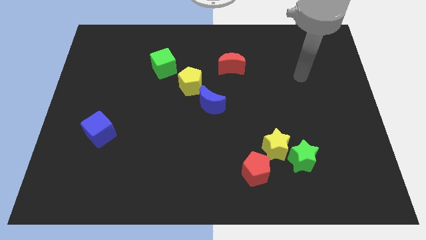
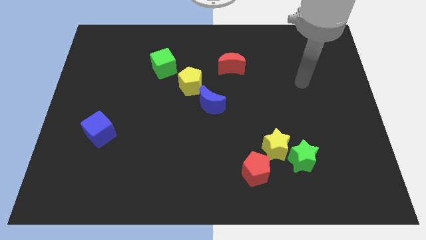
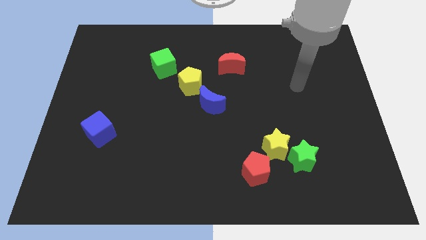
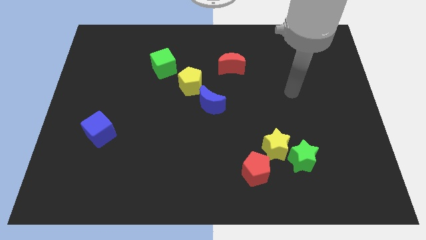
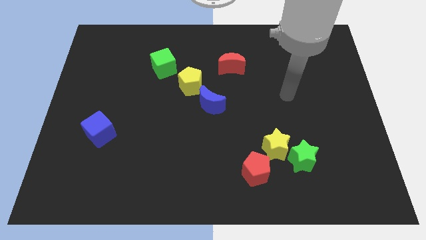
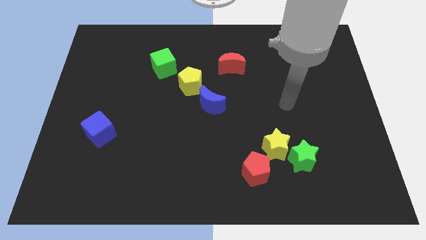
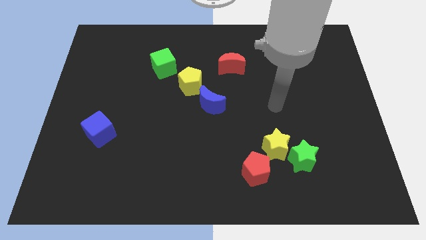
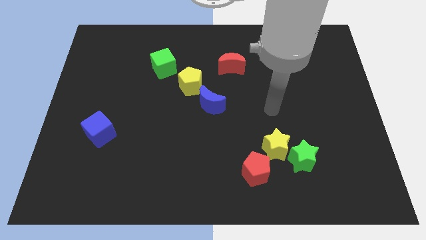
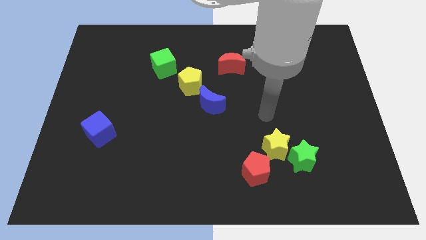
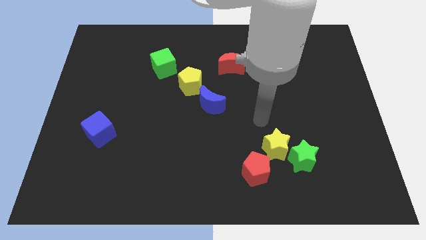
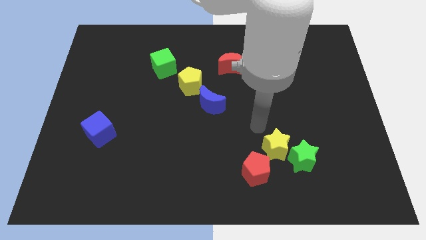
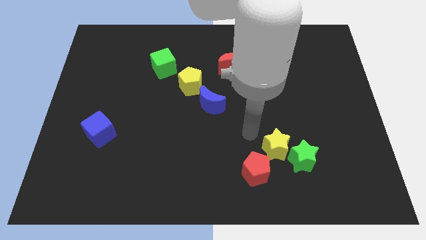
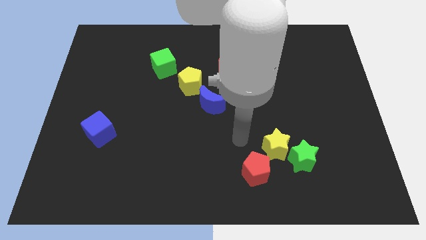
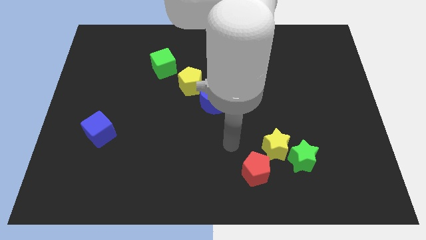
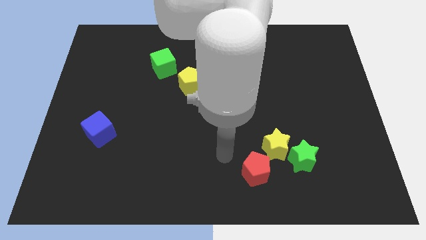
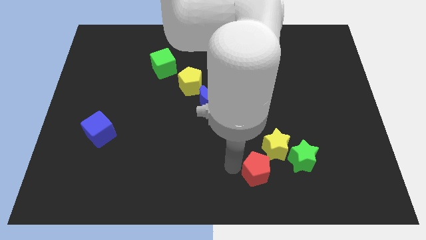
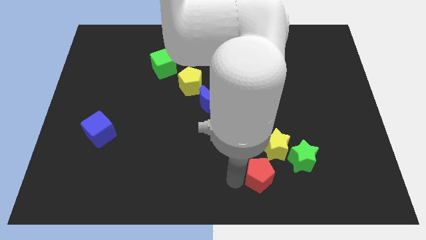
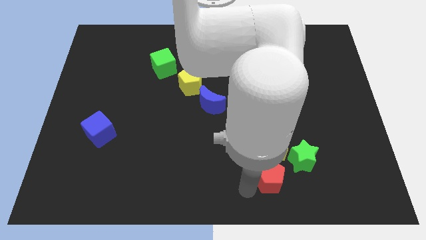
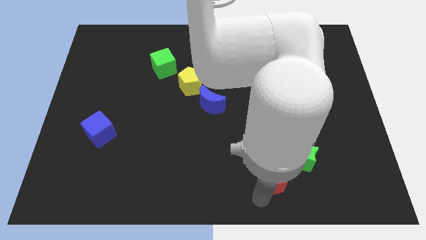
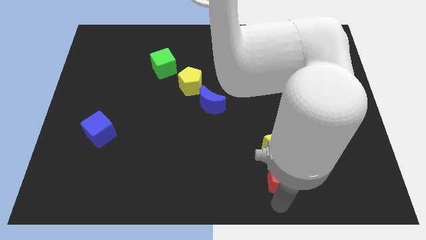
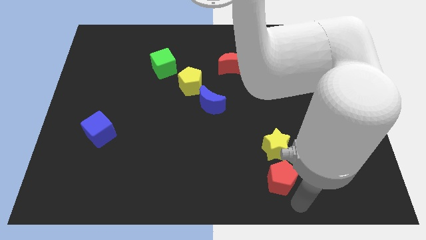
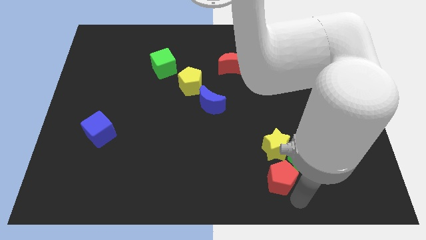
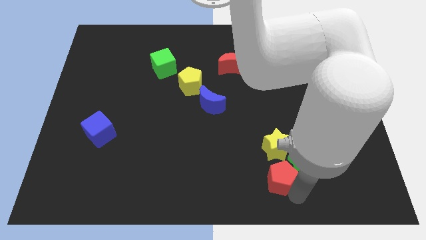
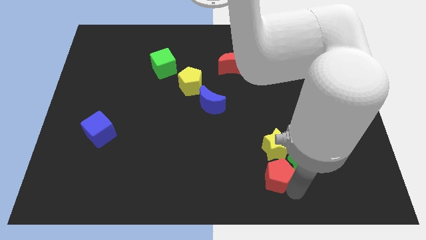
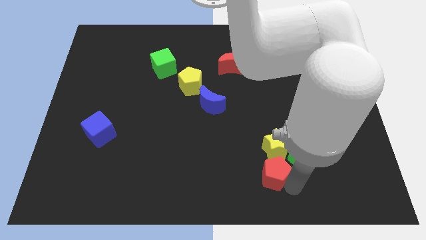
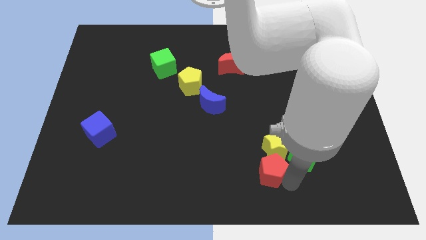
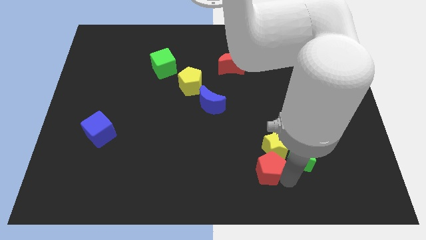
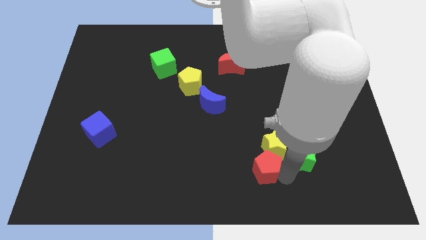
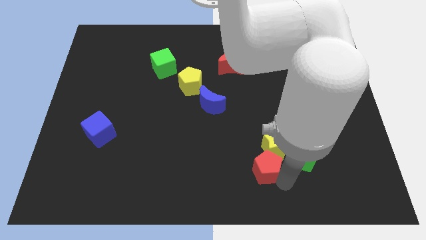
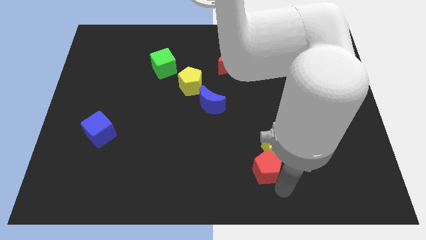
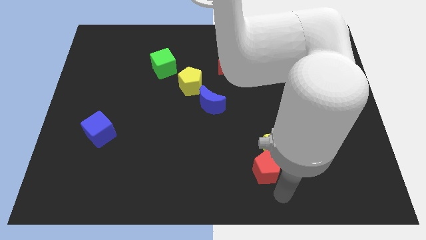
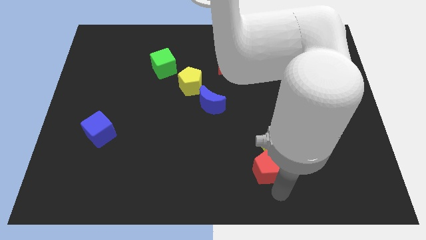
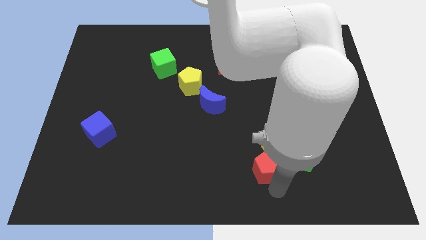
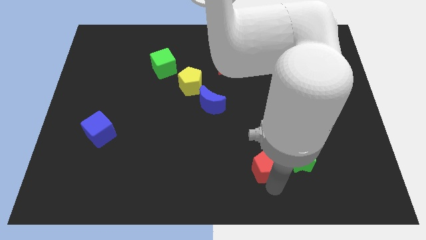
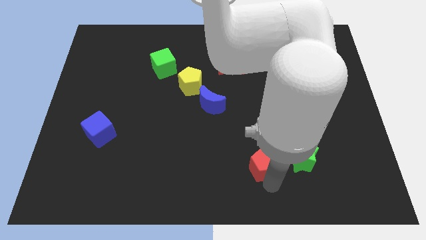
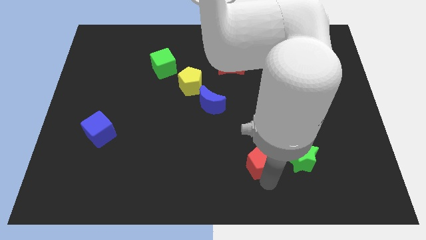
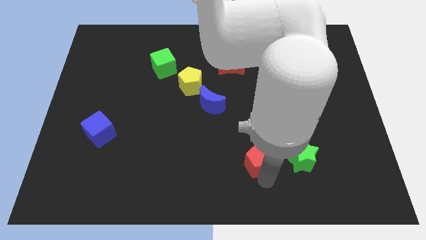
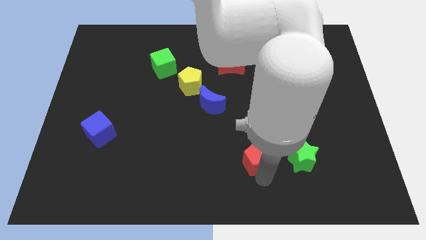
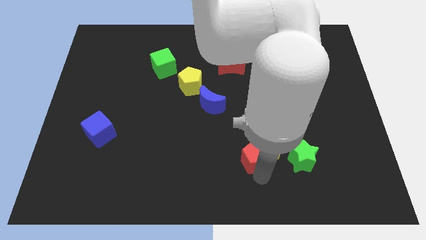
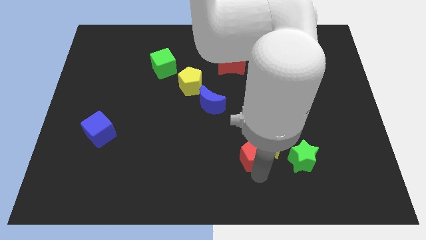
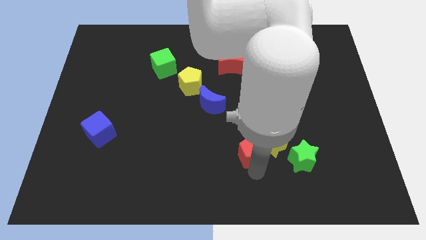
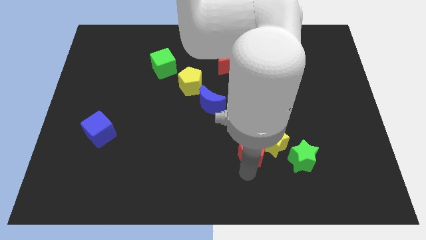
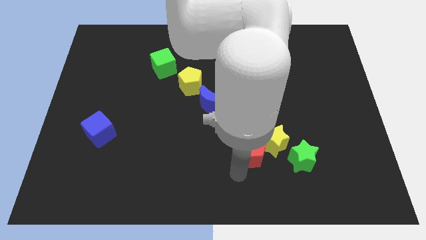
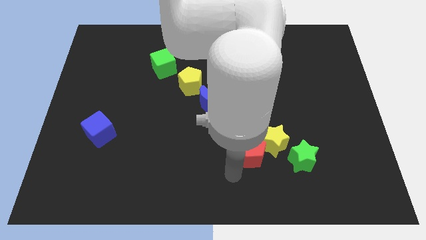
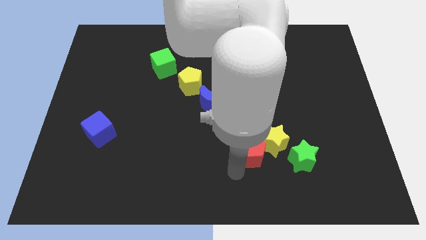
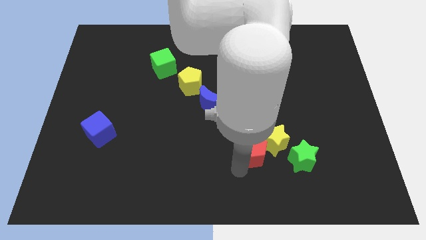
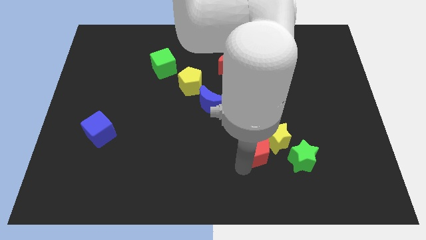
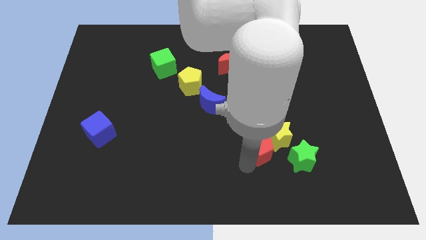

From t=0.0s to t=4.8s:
slide the red pentagon to the top left of the green star

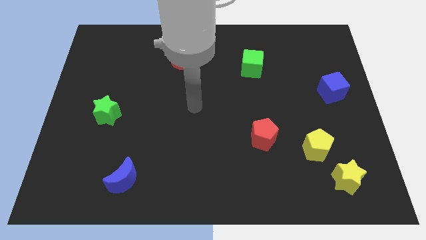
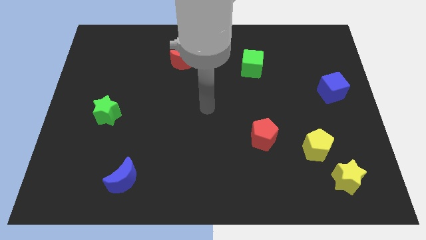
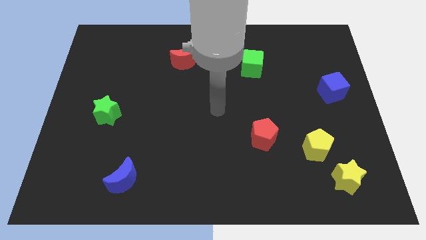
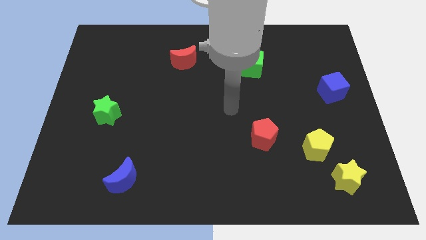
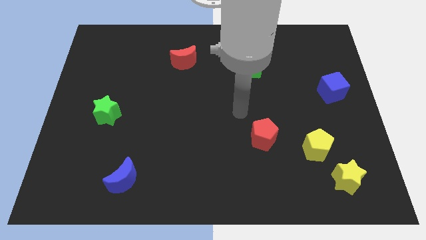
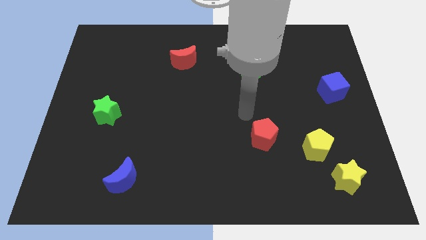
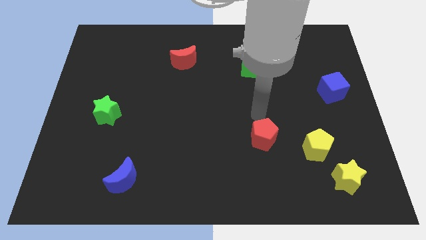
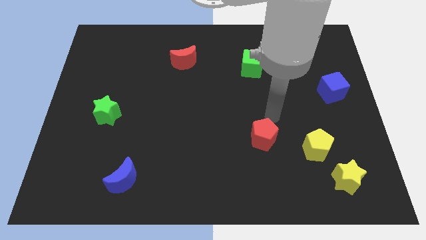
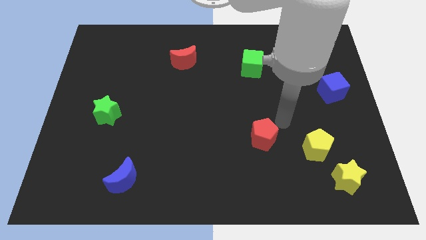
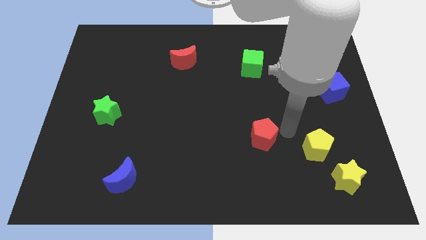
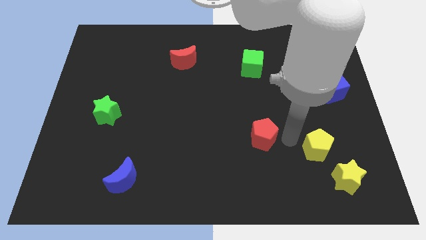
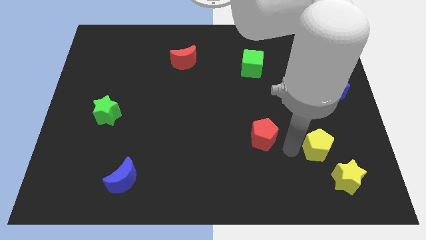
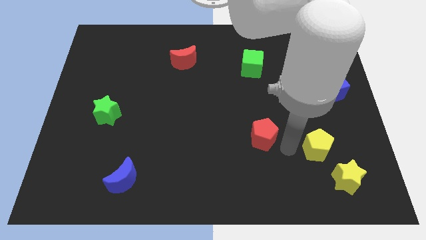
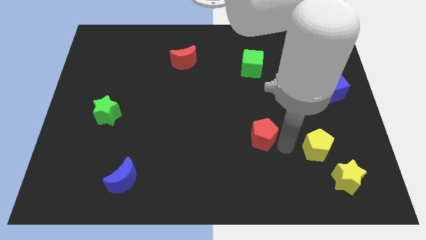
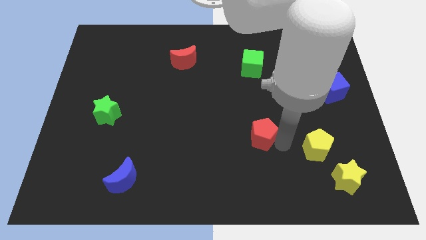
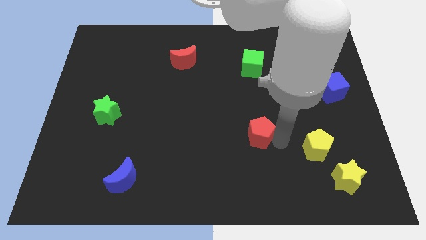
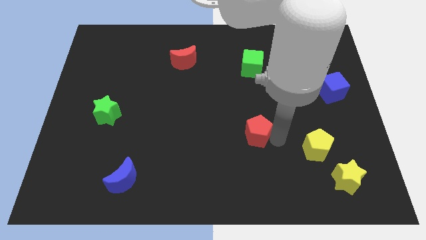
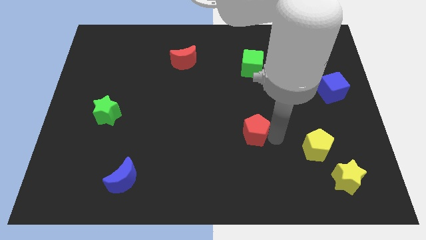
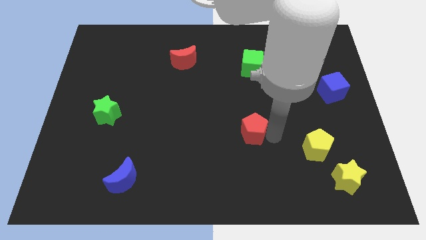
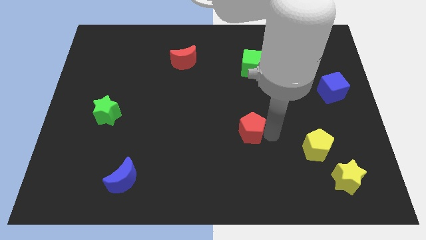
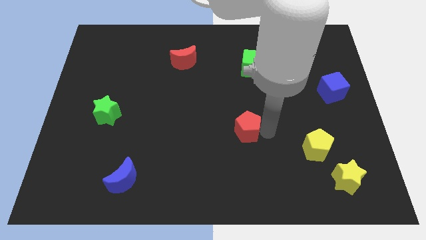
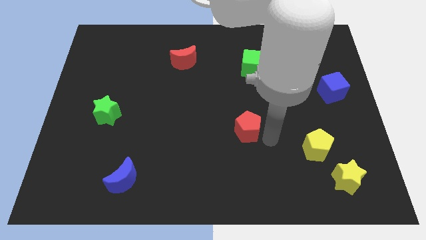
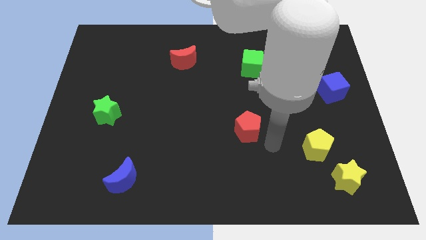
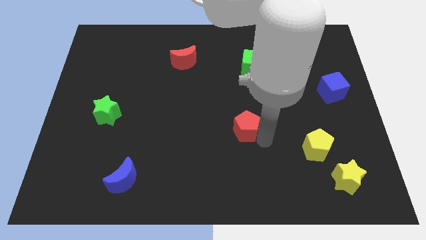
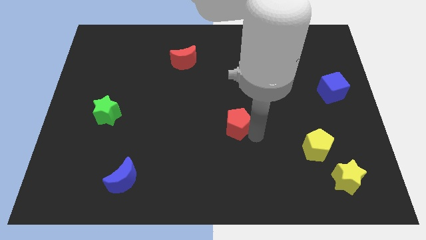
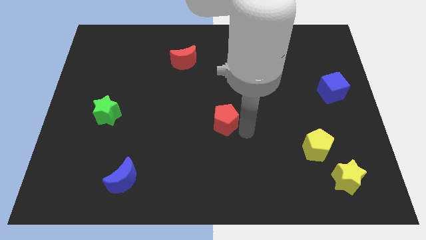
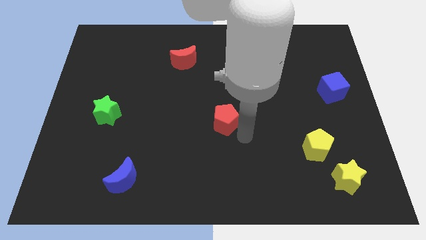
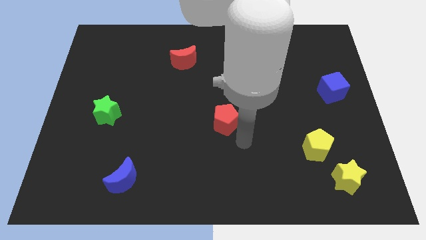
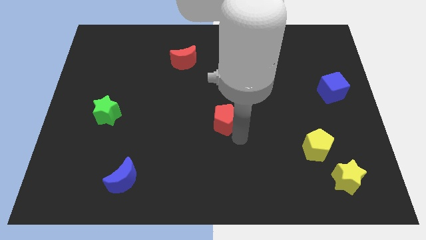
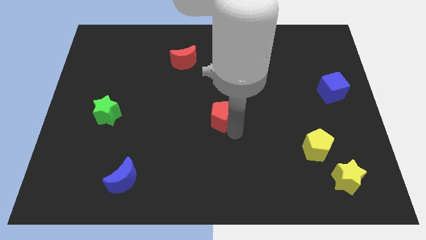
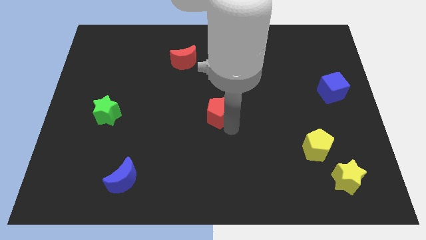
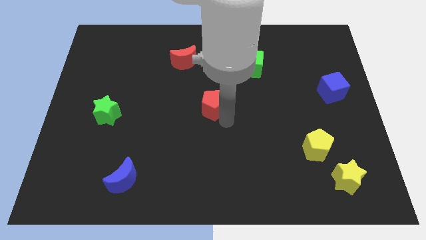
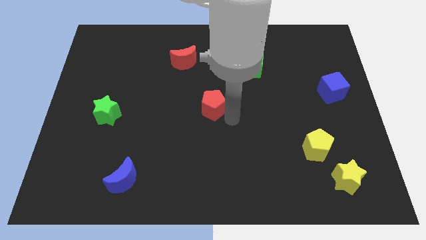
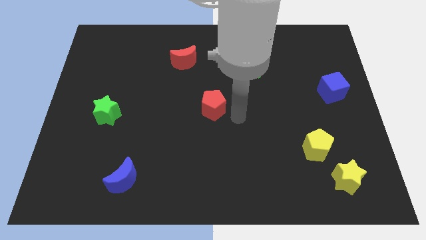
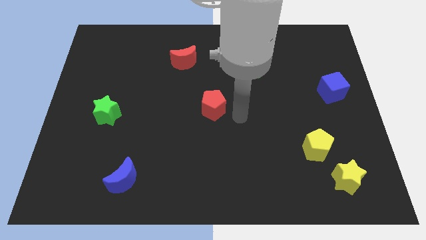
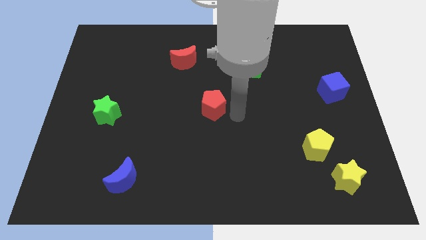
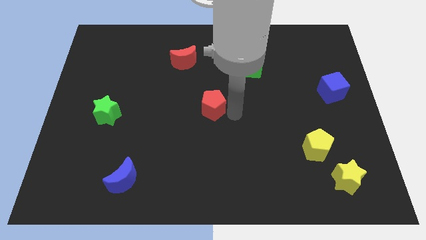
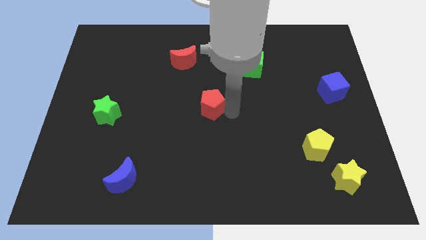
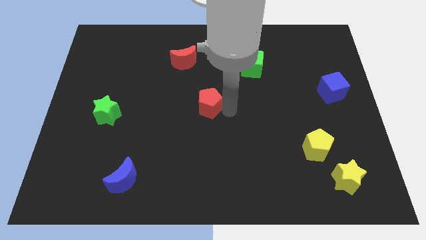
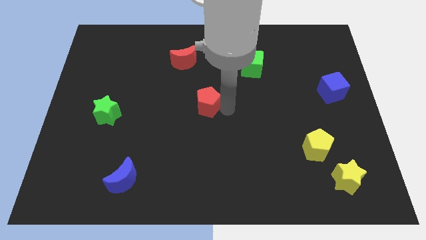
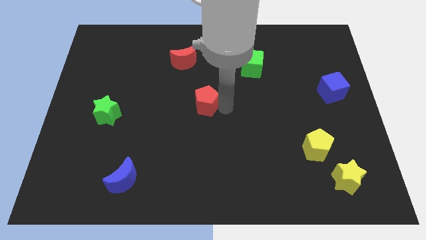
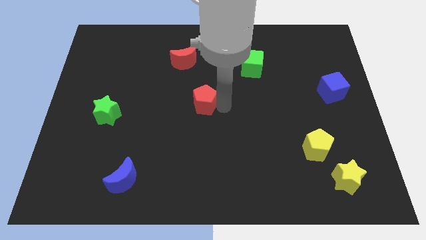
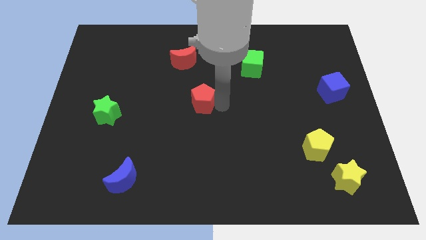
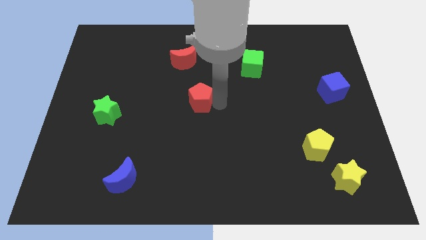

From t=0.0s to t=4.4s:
push the red pentagon below the red moon
